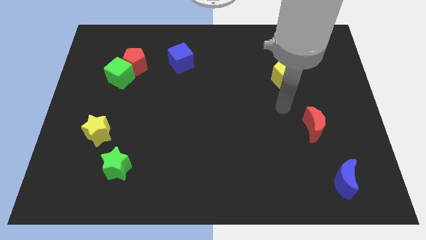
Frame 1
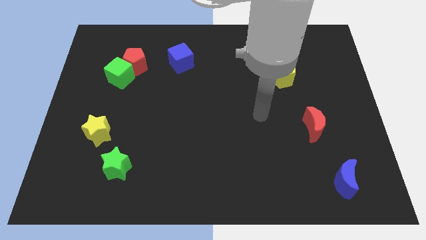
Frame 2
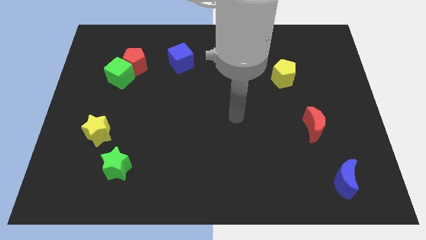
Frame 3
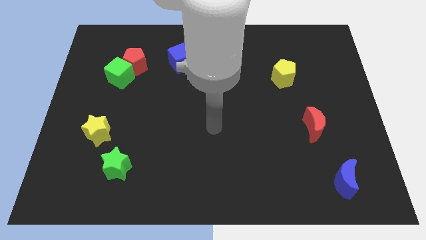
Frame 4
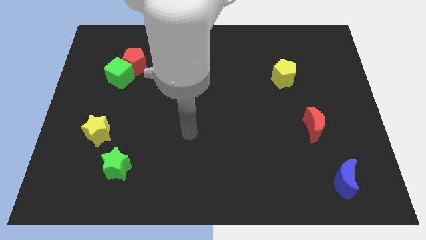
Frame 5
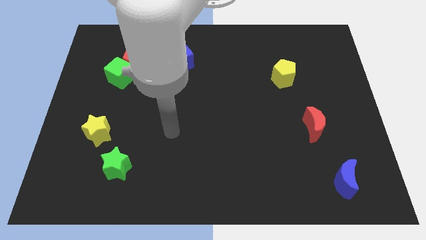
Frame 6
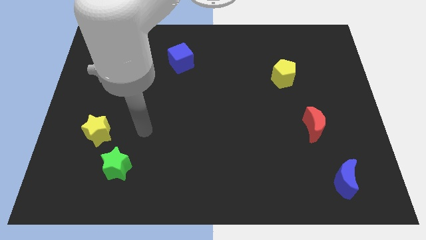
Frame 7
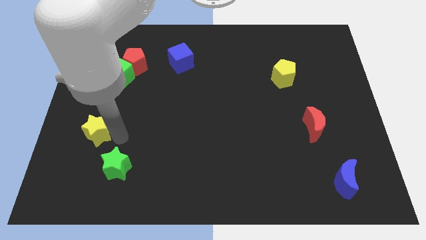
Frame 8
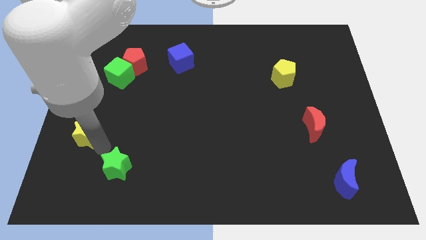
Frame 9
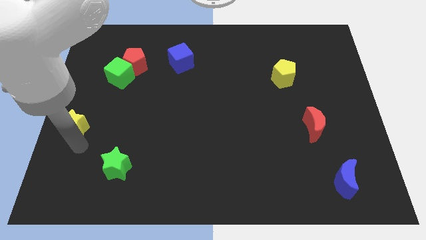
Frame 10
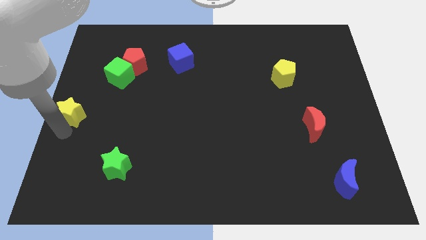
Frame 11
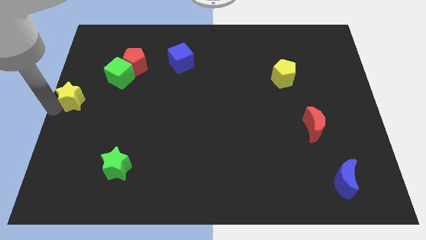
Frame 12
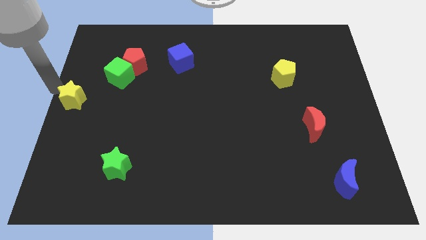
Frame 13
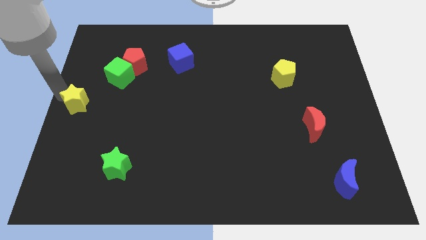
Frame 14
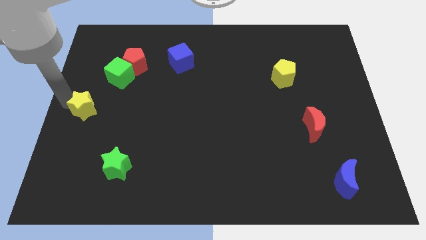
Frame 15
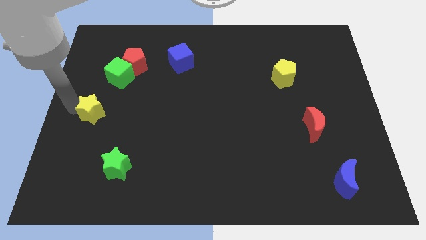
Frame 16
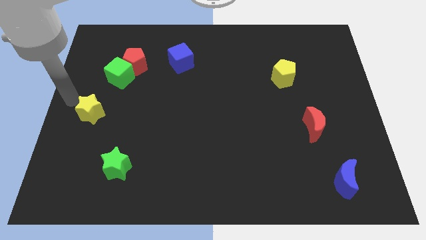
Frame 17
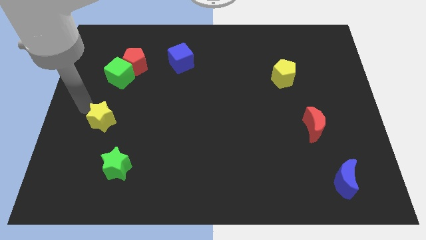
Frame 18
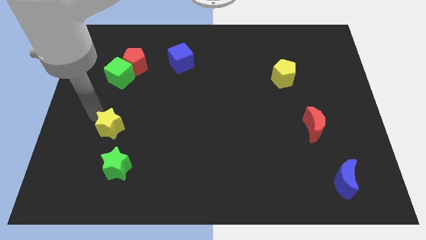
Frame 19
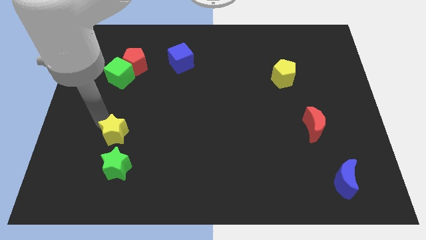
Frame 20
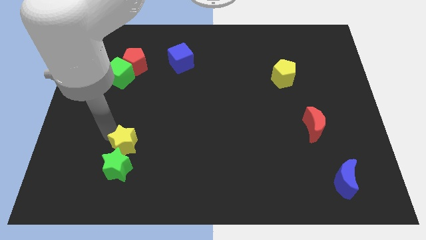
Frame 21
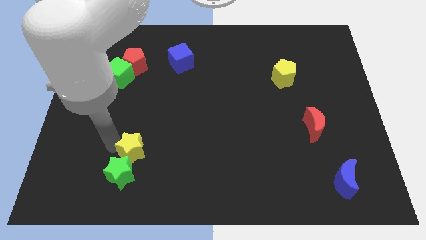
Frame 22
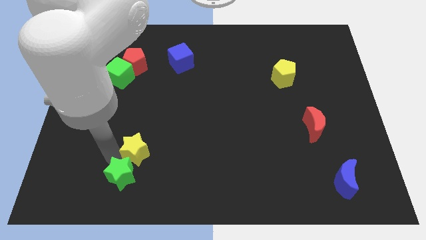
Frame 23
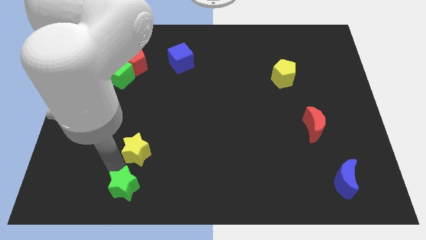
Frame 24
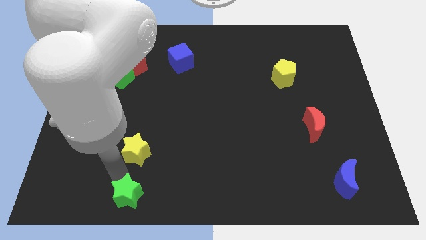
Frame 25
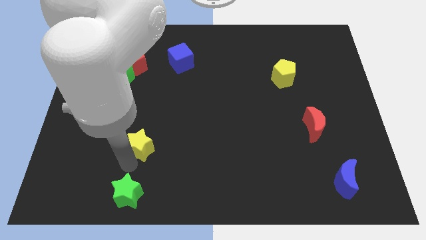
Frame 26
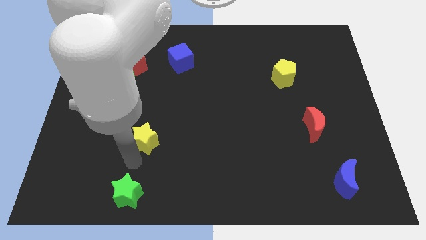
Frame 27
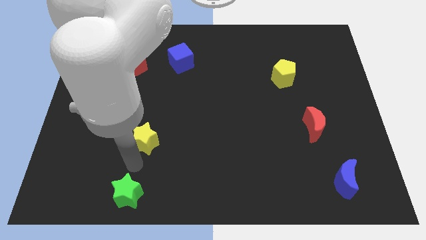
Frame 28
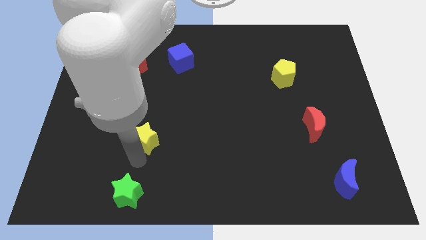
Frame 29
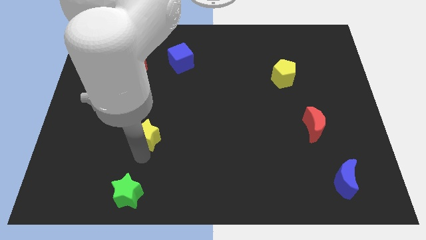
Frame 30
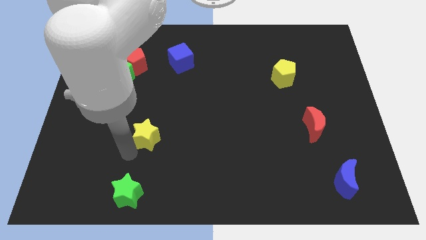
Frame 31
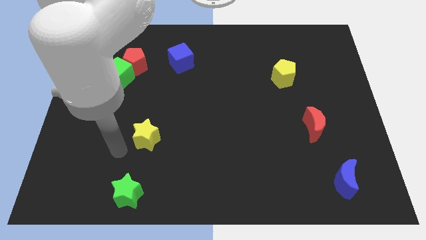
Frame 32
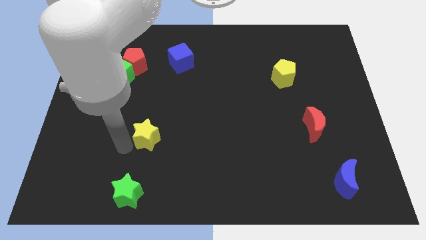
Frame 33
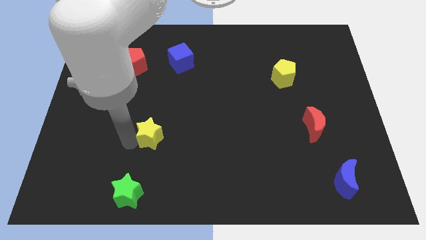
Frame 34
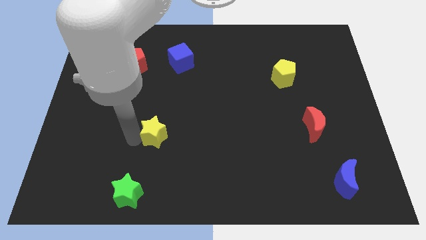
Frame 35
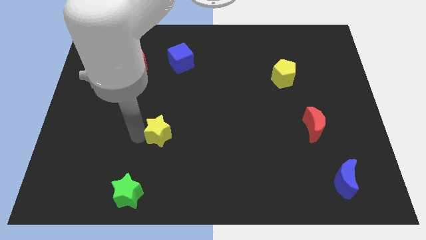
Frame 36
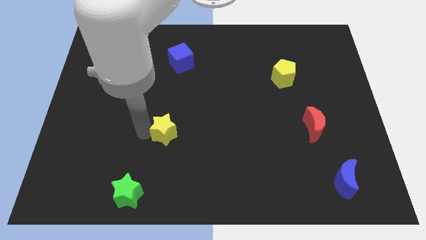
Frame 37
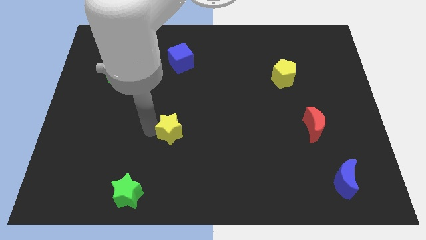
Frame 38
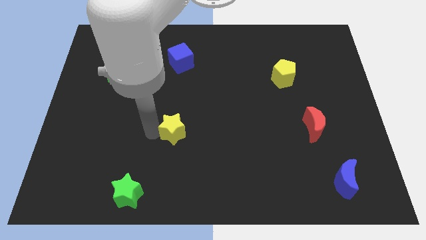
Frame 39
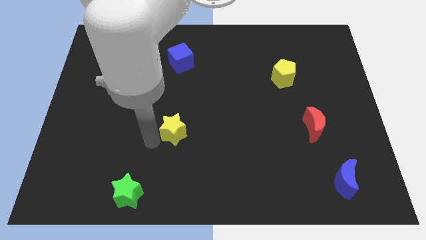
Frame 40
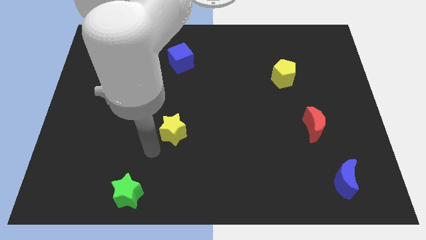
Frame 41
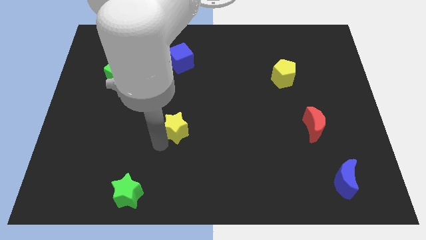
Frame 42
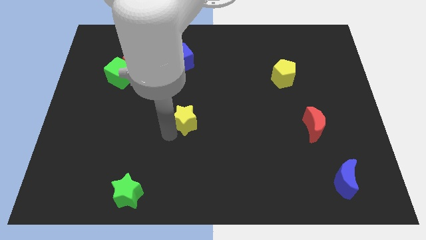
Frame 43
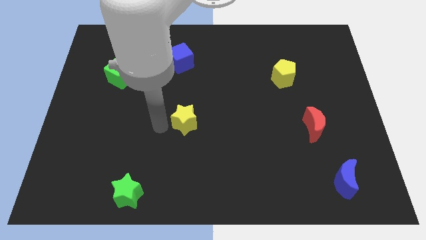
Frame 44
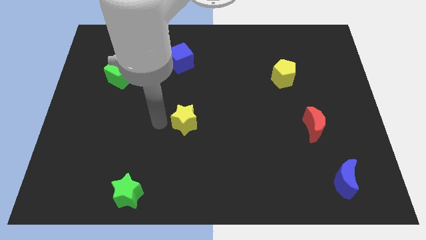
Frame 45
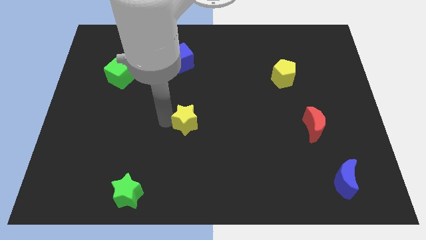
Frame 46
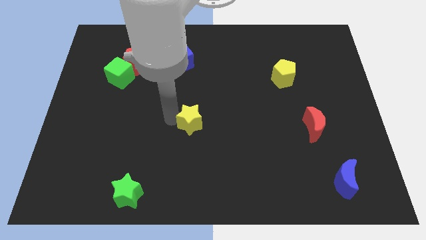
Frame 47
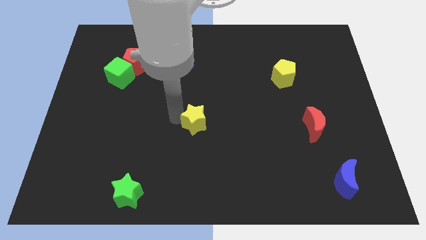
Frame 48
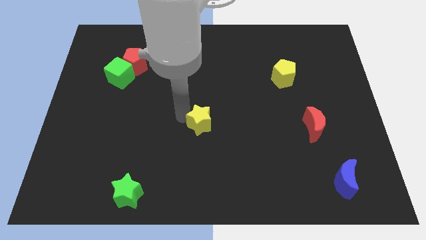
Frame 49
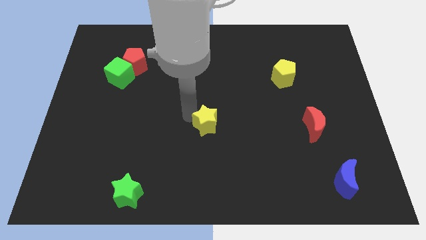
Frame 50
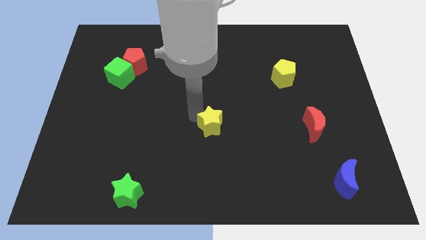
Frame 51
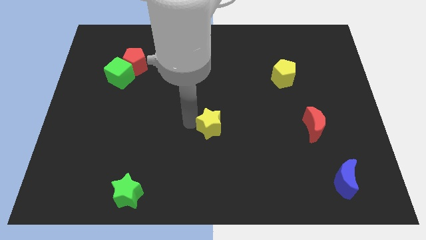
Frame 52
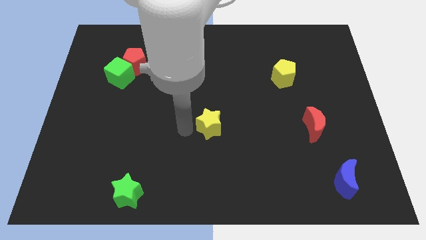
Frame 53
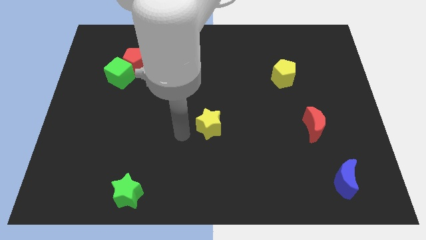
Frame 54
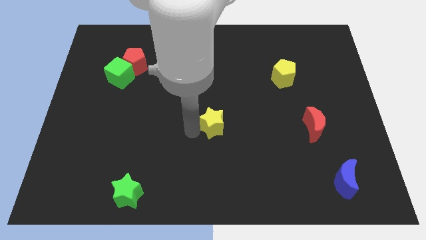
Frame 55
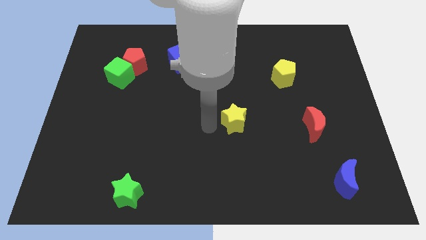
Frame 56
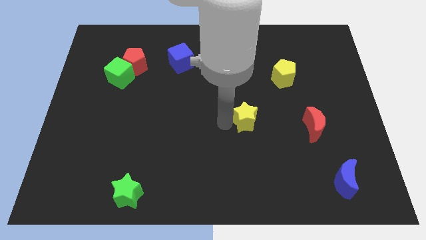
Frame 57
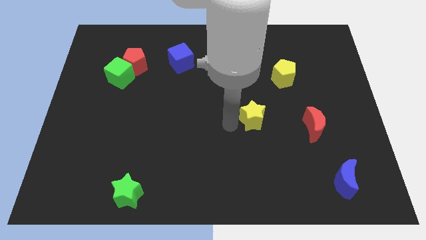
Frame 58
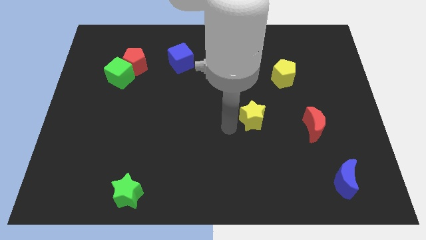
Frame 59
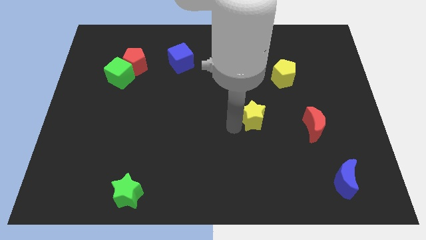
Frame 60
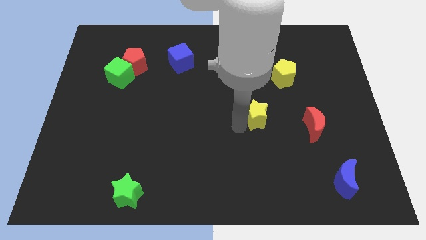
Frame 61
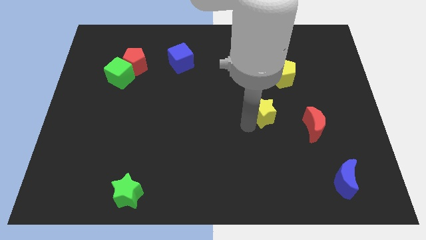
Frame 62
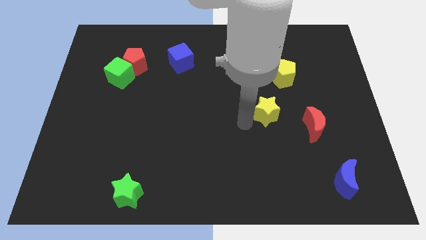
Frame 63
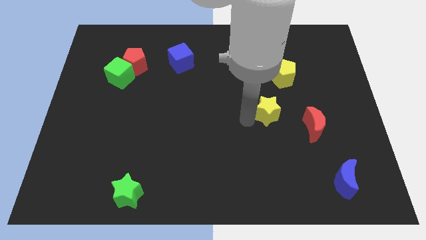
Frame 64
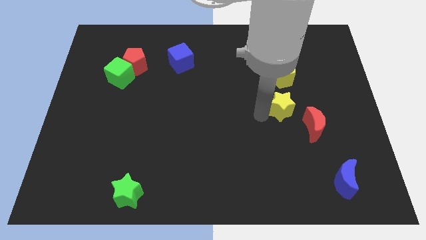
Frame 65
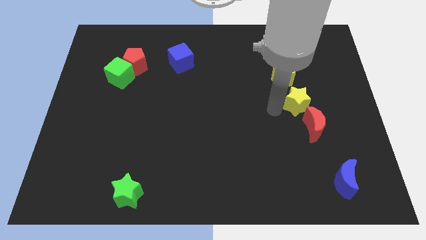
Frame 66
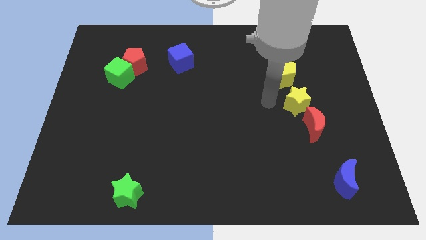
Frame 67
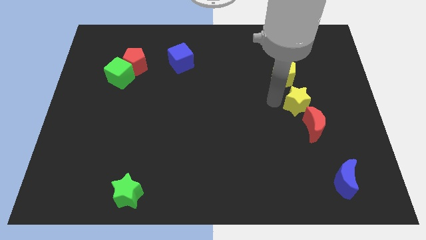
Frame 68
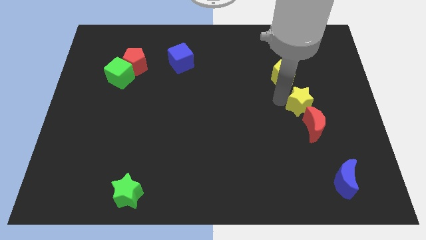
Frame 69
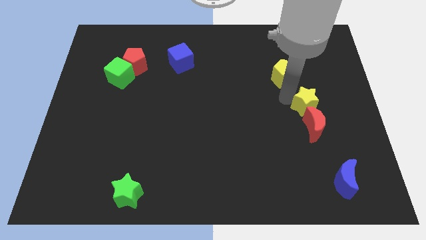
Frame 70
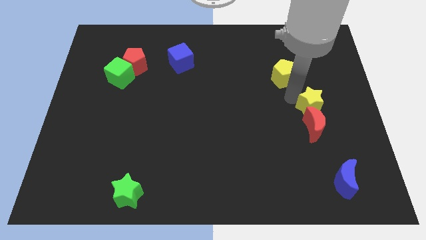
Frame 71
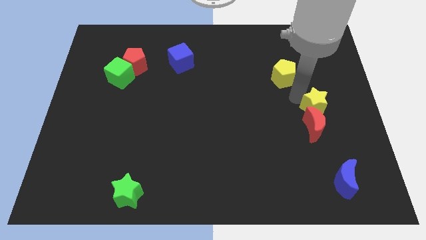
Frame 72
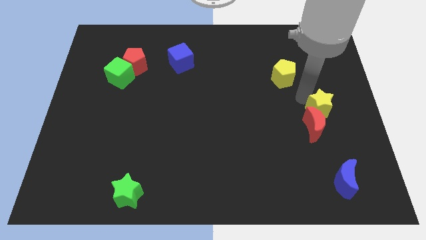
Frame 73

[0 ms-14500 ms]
move the yellow star to the right side of the board

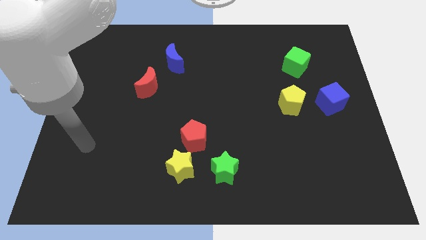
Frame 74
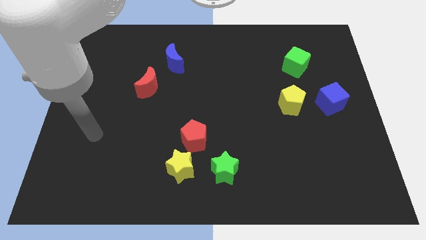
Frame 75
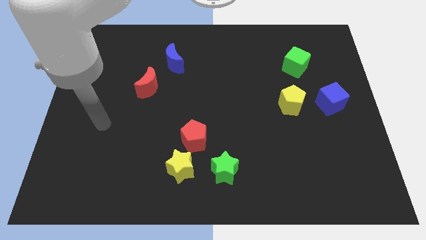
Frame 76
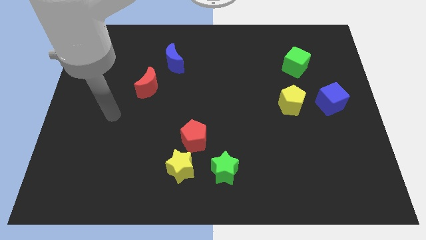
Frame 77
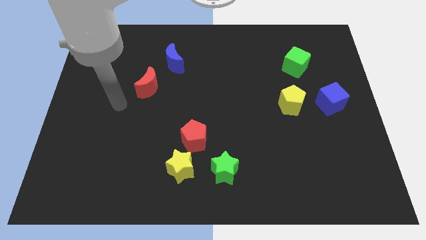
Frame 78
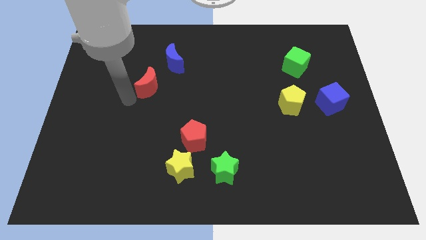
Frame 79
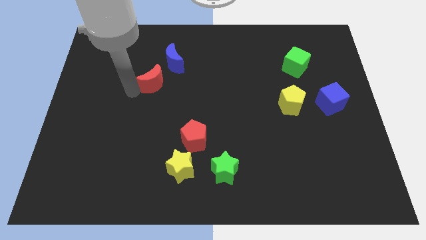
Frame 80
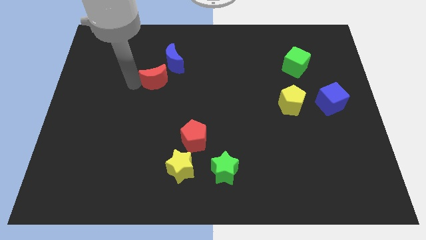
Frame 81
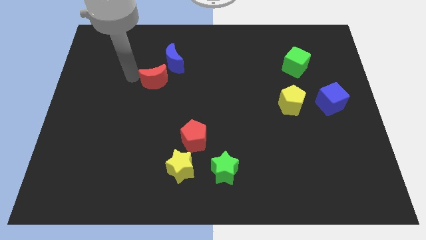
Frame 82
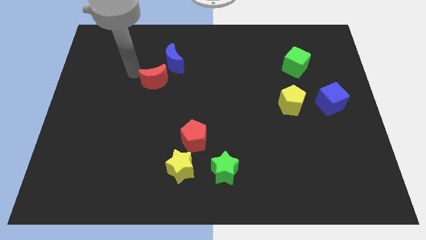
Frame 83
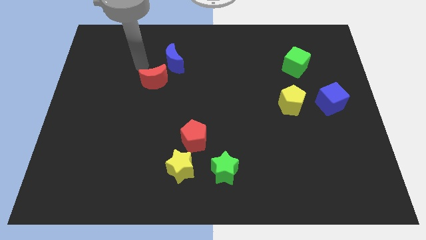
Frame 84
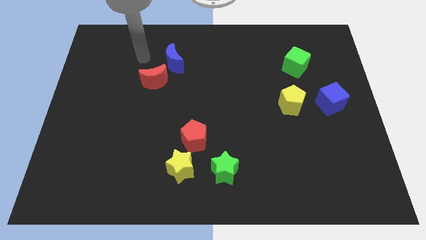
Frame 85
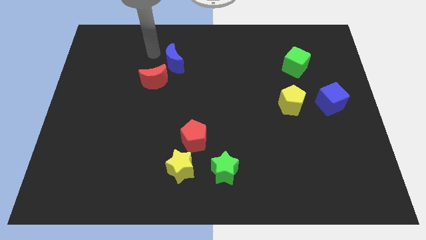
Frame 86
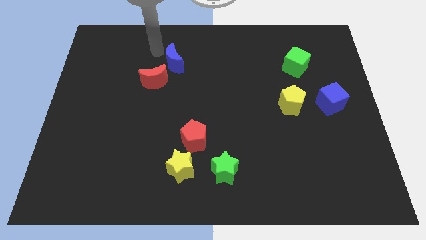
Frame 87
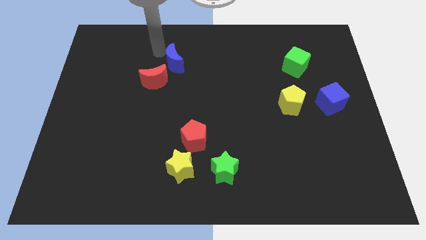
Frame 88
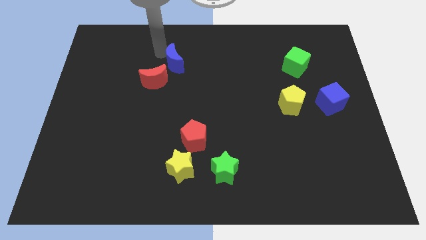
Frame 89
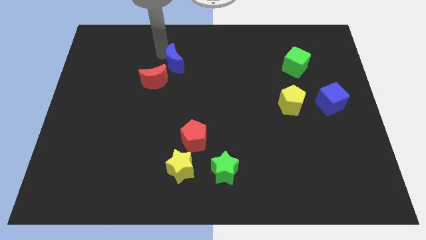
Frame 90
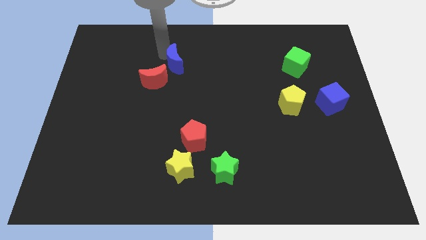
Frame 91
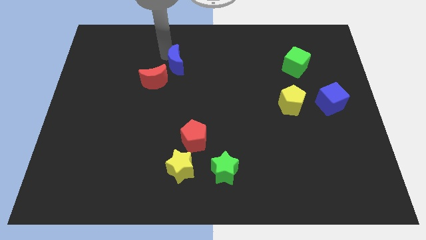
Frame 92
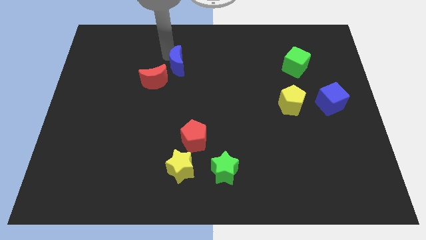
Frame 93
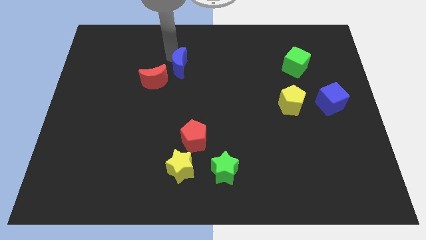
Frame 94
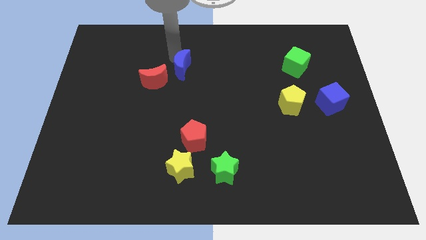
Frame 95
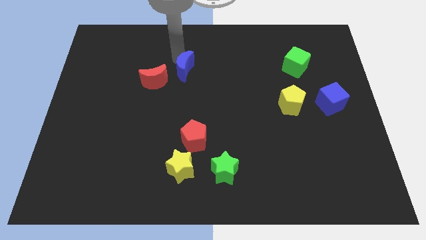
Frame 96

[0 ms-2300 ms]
slide the blue moon to the center
